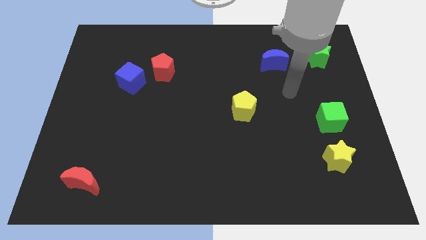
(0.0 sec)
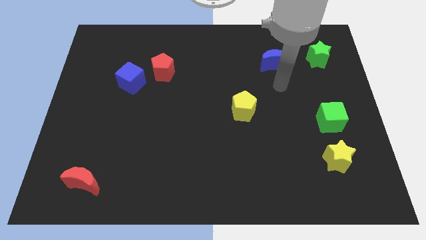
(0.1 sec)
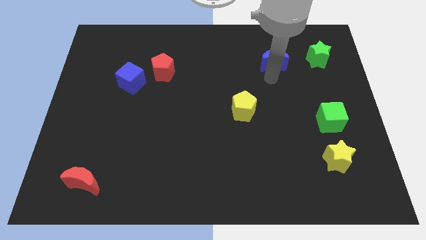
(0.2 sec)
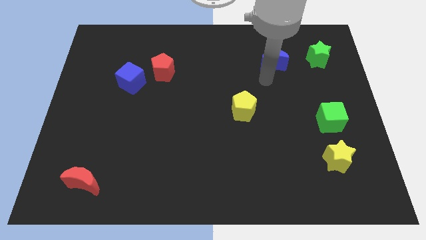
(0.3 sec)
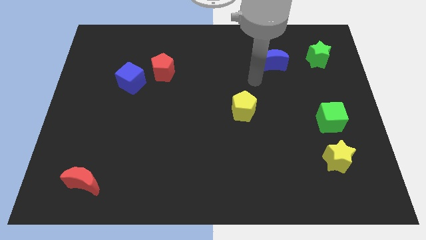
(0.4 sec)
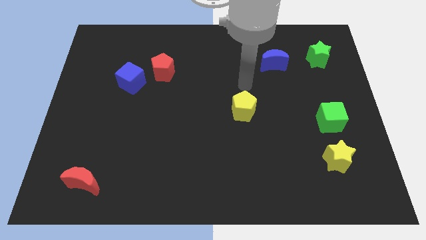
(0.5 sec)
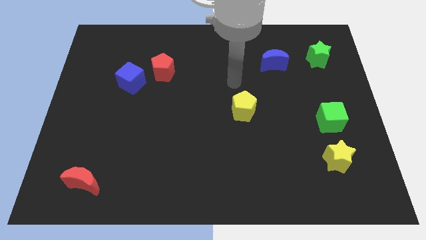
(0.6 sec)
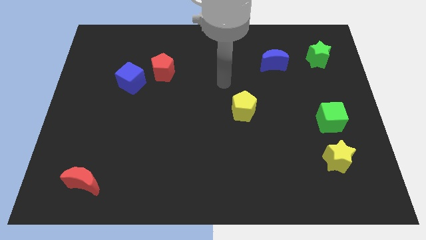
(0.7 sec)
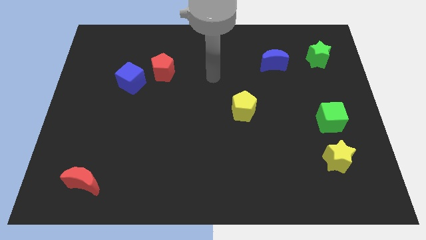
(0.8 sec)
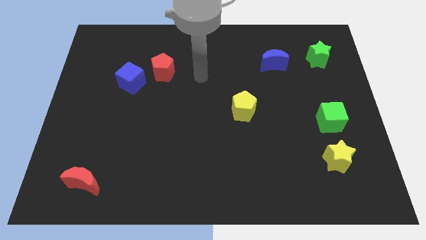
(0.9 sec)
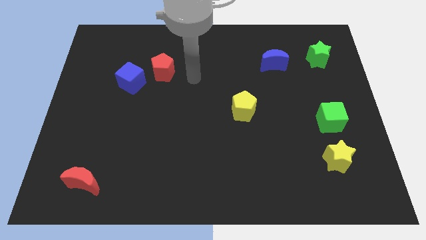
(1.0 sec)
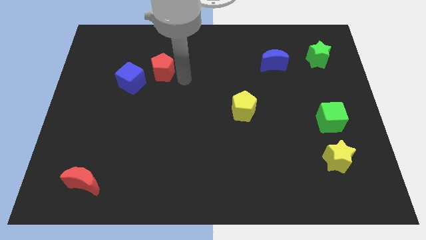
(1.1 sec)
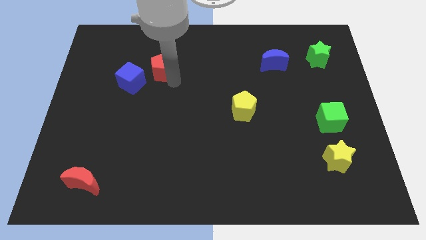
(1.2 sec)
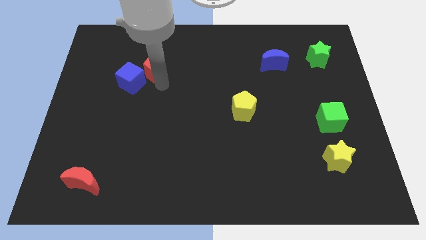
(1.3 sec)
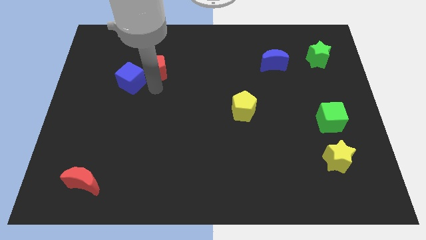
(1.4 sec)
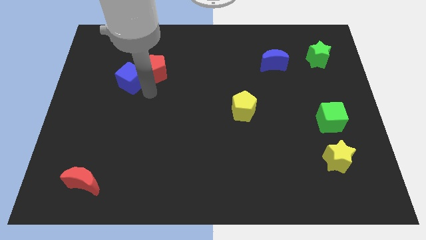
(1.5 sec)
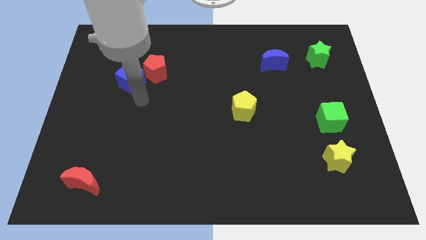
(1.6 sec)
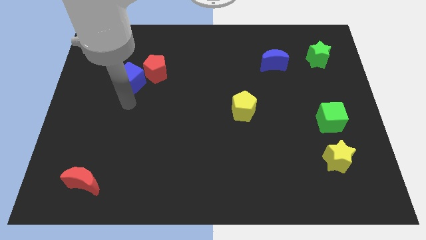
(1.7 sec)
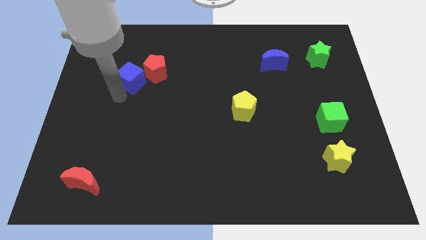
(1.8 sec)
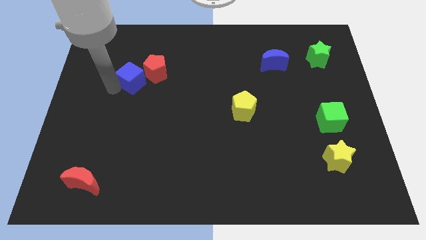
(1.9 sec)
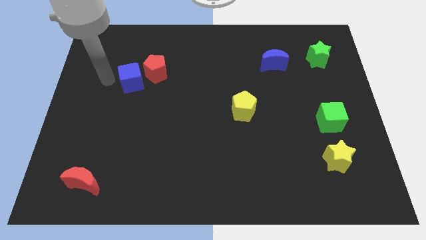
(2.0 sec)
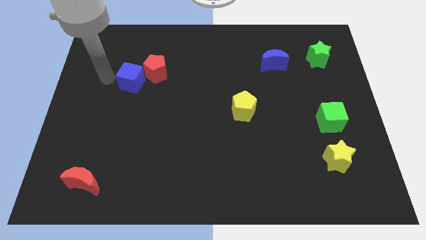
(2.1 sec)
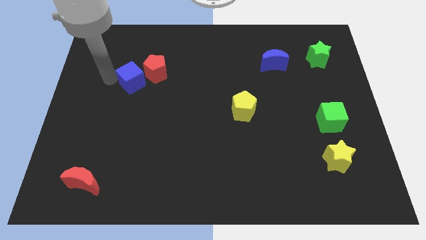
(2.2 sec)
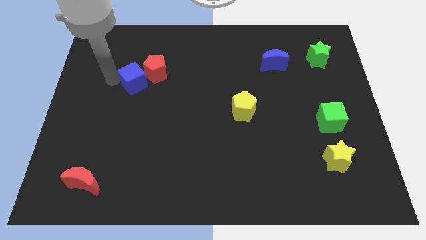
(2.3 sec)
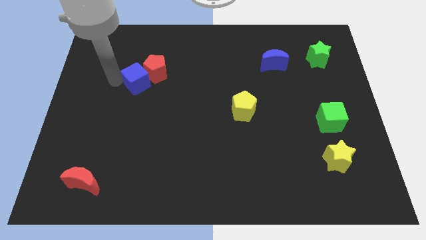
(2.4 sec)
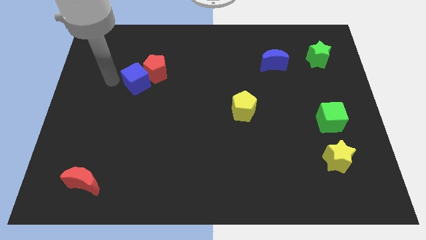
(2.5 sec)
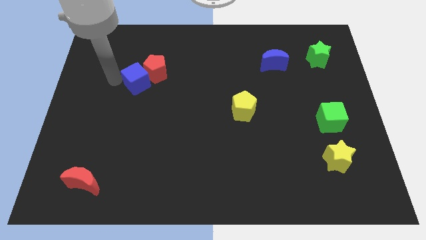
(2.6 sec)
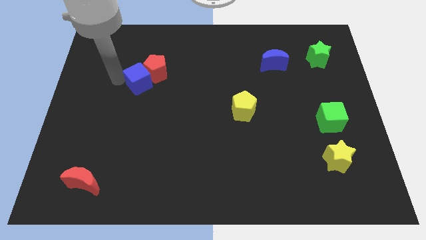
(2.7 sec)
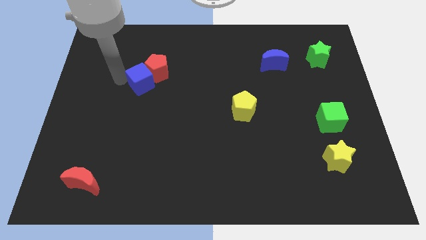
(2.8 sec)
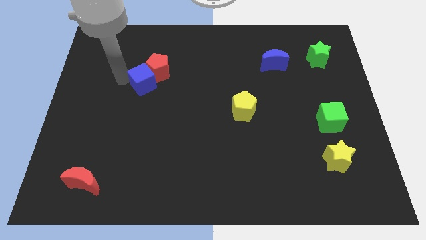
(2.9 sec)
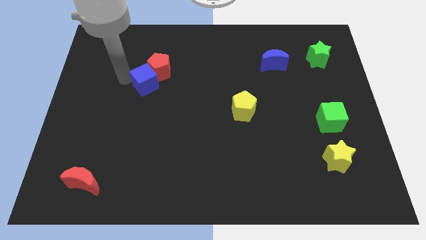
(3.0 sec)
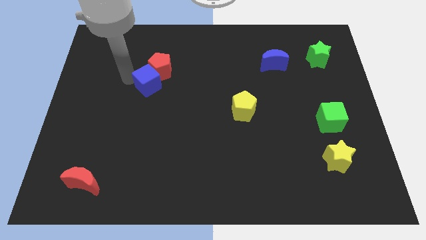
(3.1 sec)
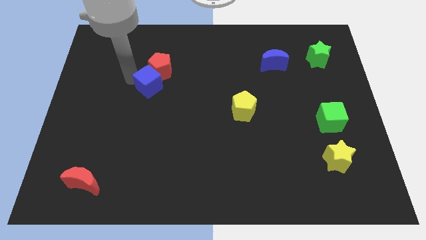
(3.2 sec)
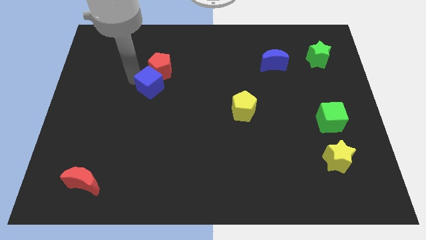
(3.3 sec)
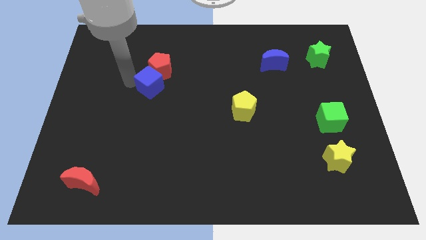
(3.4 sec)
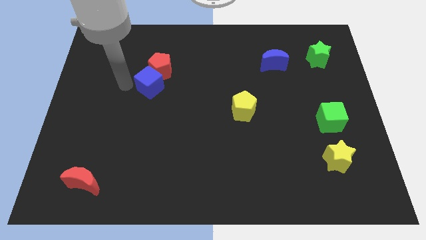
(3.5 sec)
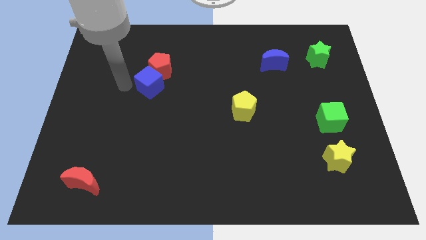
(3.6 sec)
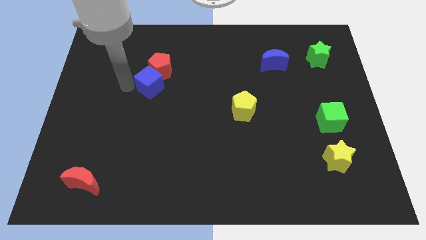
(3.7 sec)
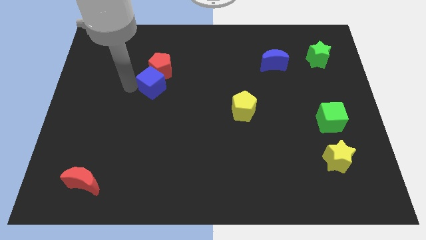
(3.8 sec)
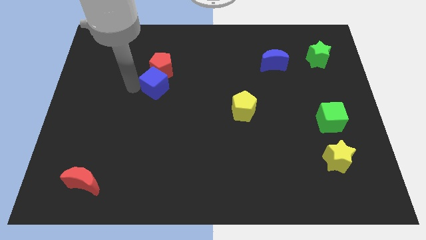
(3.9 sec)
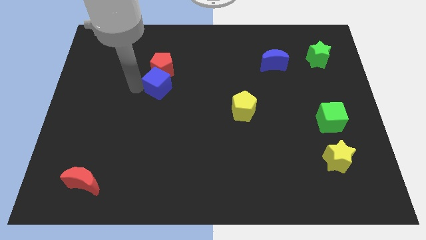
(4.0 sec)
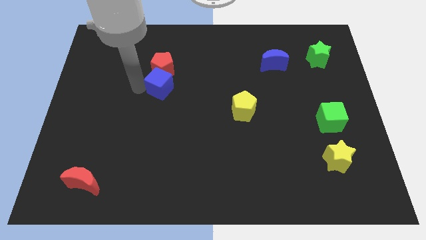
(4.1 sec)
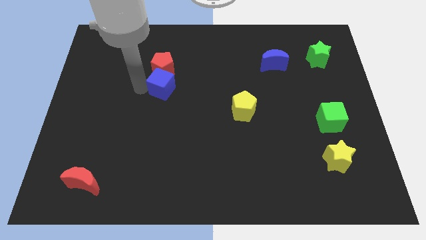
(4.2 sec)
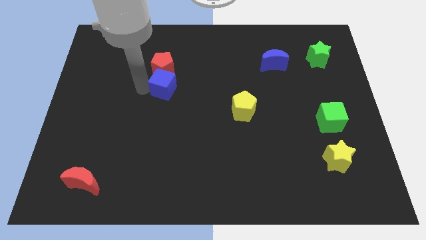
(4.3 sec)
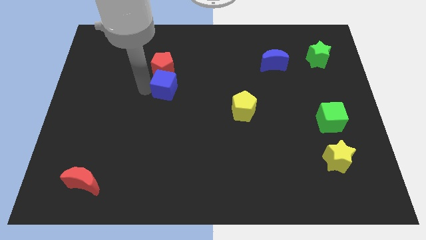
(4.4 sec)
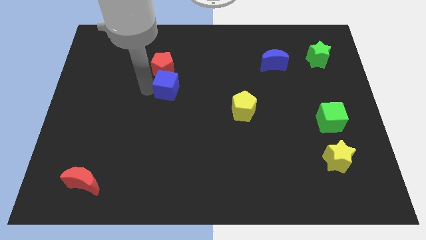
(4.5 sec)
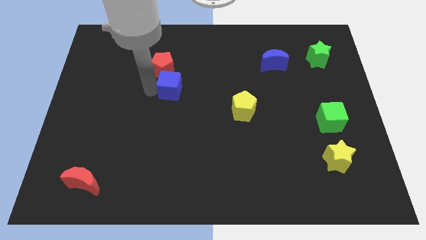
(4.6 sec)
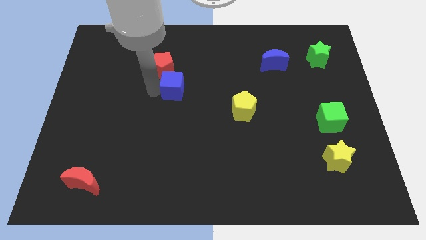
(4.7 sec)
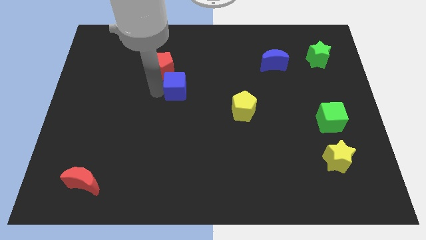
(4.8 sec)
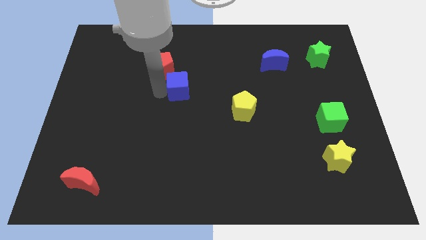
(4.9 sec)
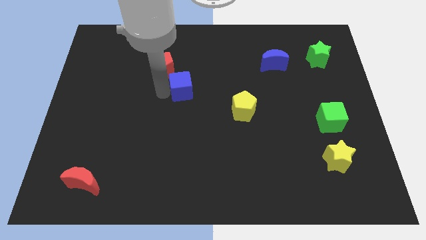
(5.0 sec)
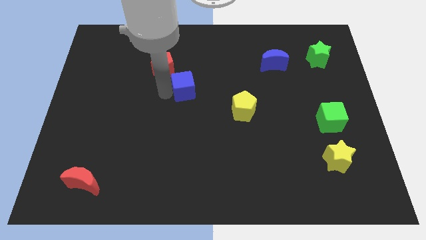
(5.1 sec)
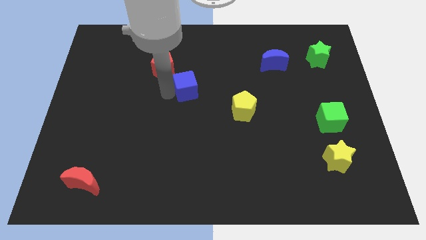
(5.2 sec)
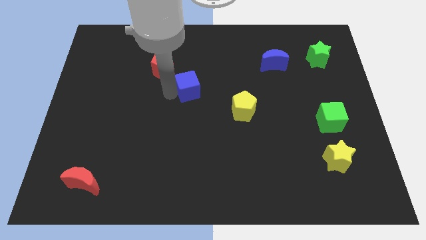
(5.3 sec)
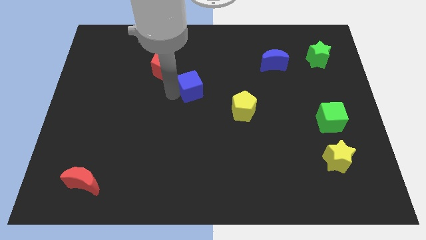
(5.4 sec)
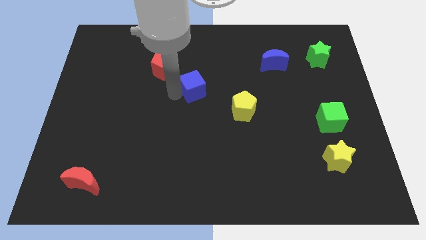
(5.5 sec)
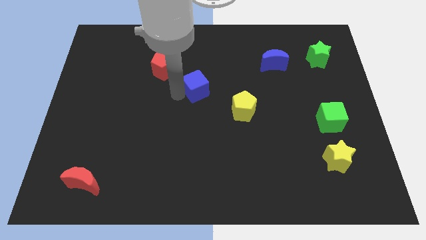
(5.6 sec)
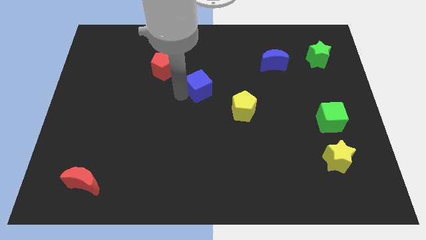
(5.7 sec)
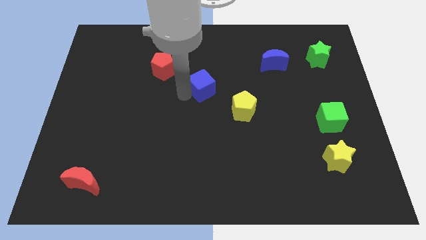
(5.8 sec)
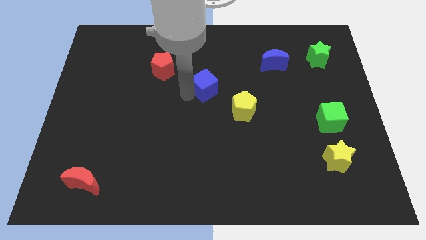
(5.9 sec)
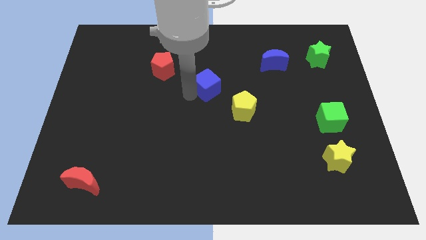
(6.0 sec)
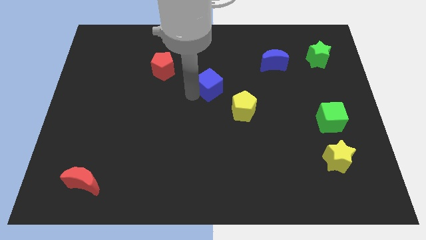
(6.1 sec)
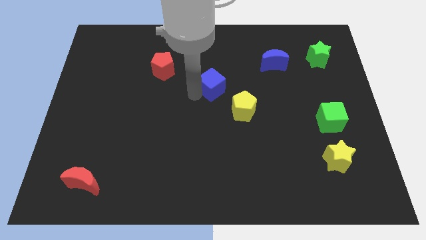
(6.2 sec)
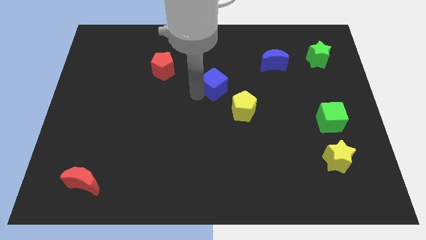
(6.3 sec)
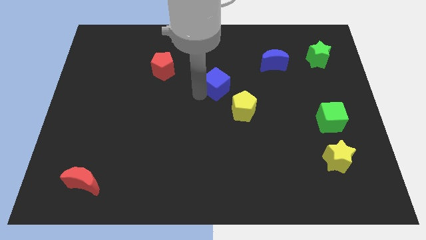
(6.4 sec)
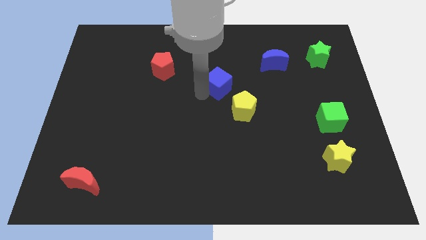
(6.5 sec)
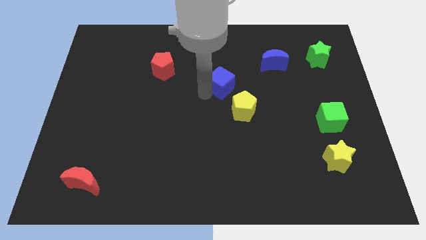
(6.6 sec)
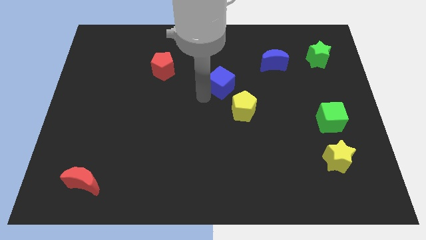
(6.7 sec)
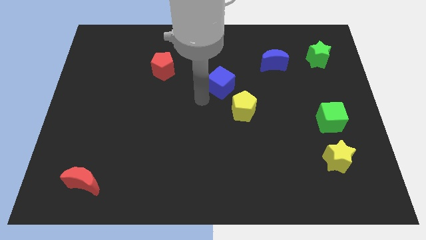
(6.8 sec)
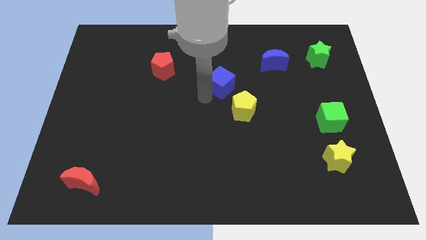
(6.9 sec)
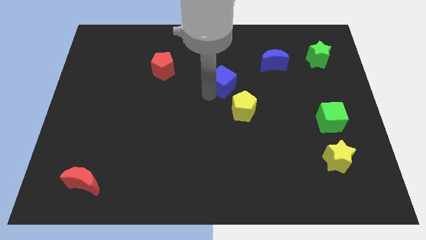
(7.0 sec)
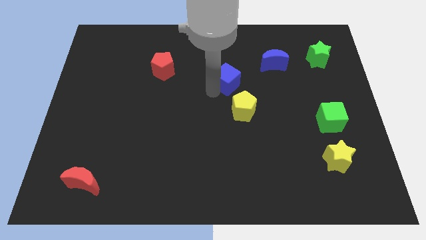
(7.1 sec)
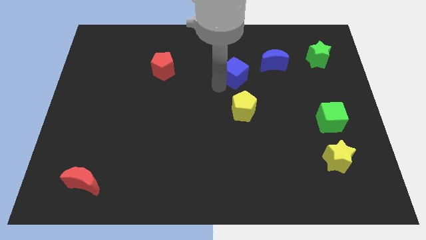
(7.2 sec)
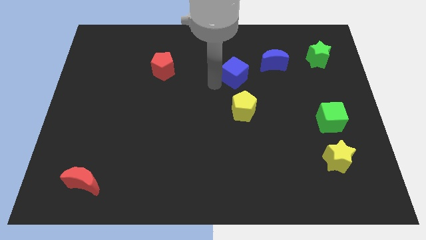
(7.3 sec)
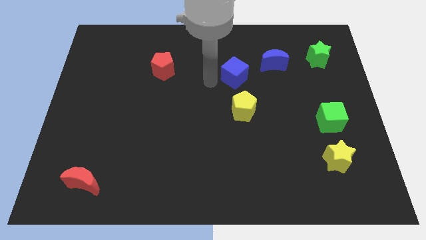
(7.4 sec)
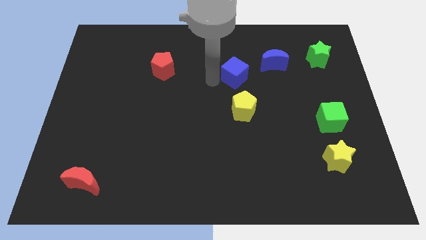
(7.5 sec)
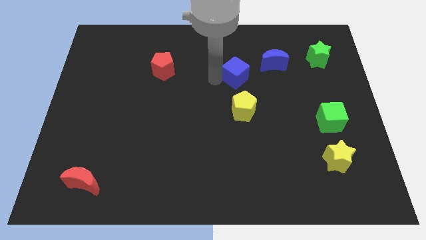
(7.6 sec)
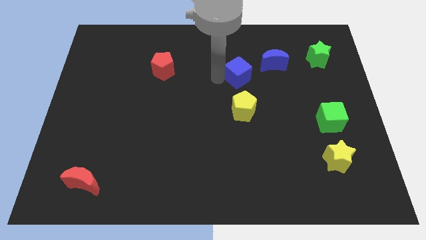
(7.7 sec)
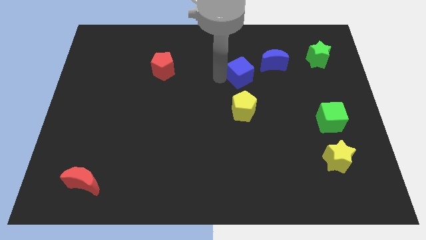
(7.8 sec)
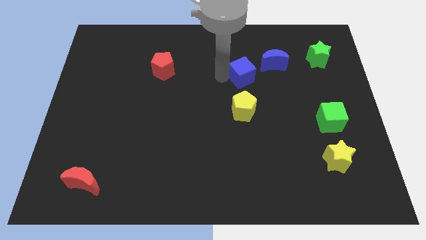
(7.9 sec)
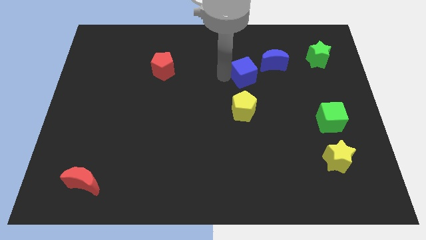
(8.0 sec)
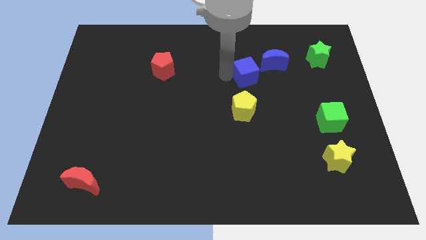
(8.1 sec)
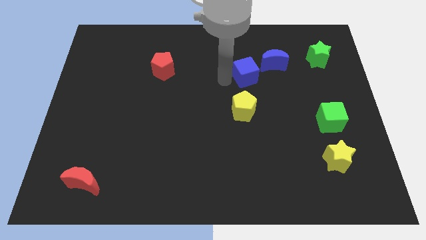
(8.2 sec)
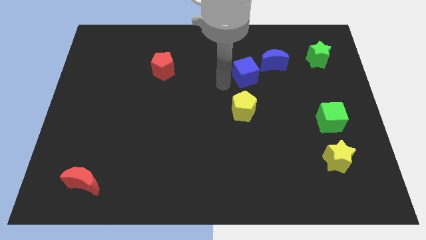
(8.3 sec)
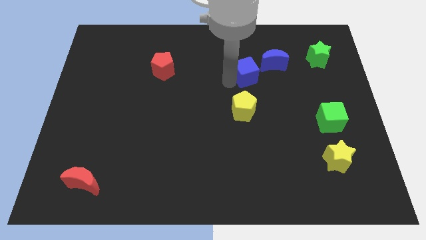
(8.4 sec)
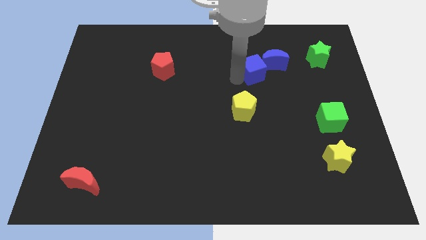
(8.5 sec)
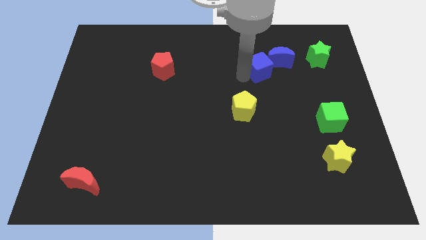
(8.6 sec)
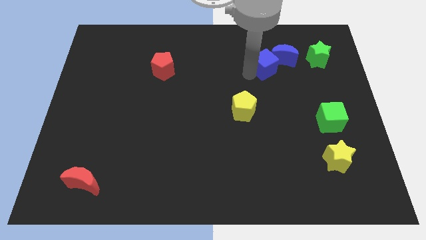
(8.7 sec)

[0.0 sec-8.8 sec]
slide the blue cube towards the blue moon
